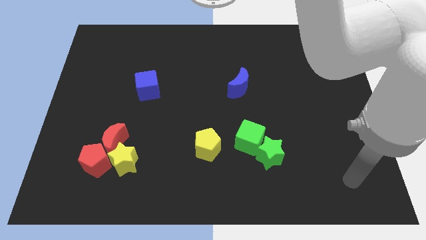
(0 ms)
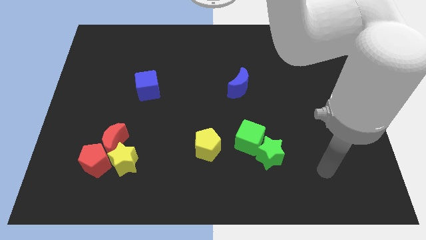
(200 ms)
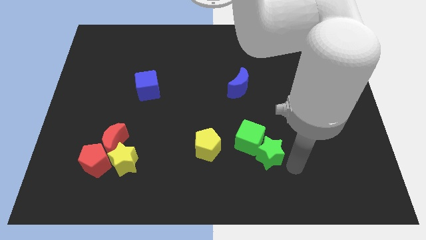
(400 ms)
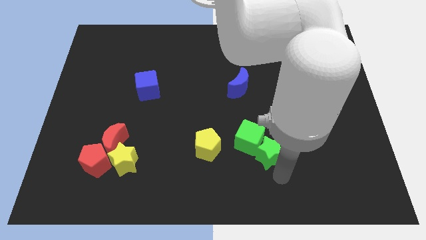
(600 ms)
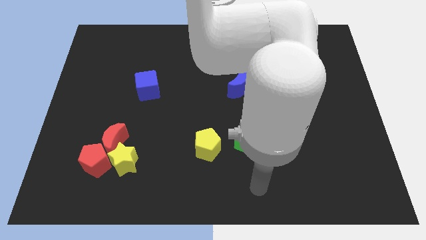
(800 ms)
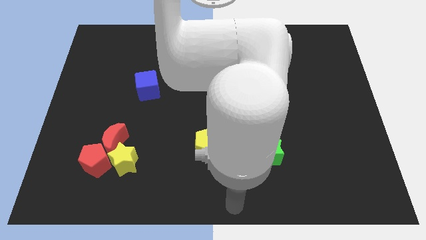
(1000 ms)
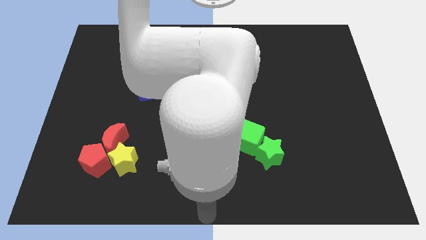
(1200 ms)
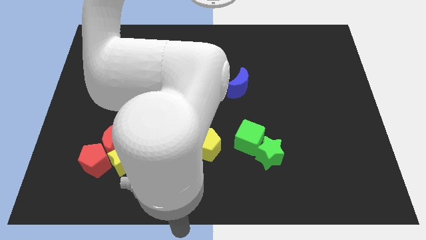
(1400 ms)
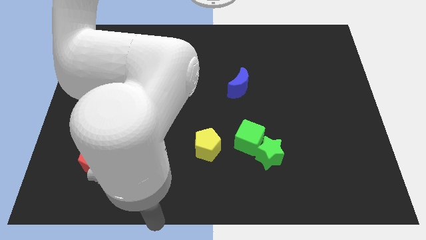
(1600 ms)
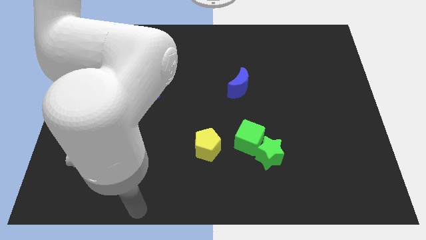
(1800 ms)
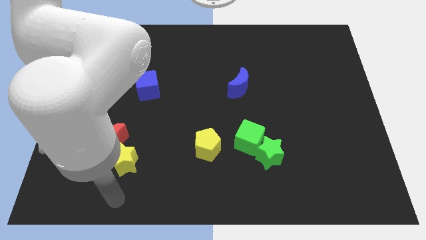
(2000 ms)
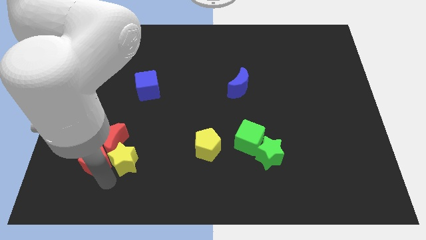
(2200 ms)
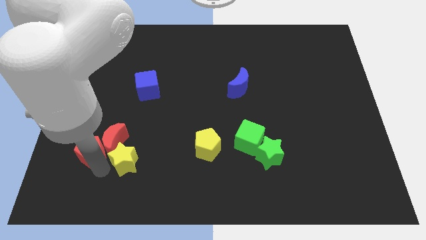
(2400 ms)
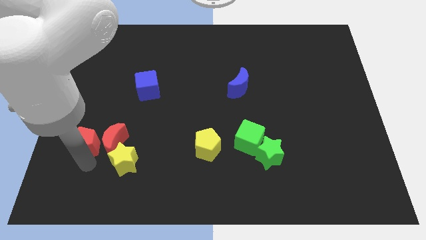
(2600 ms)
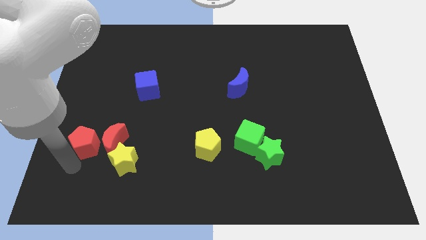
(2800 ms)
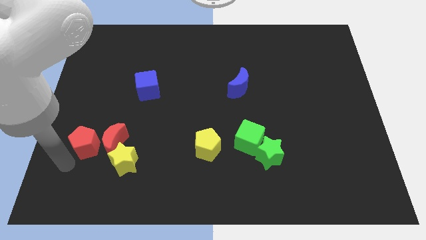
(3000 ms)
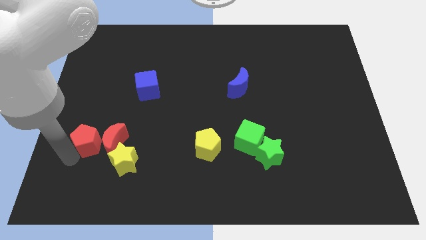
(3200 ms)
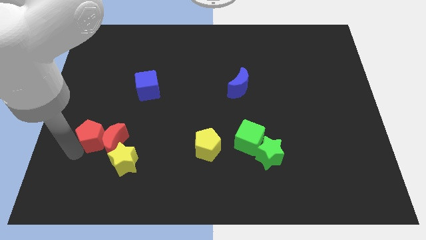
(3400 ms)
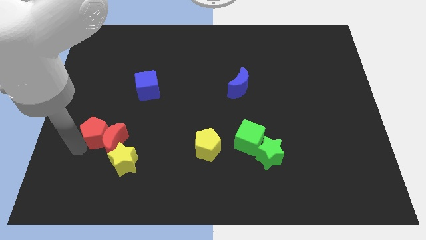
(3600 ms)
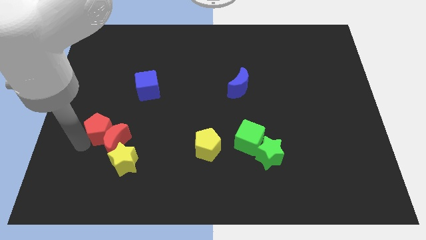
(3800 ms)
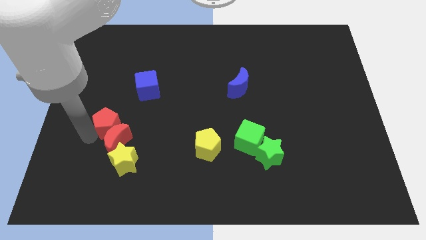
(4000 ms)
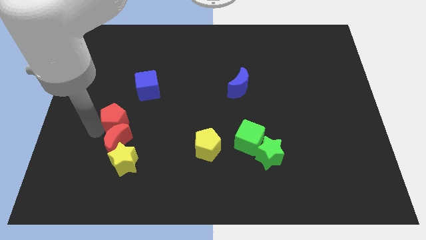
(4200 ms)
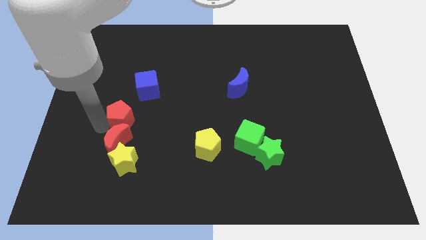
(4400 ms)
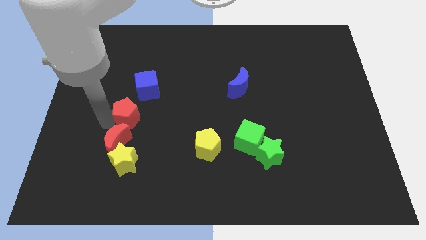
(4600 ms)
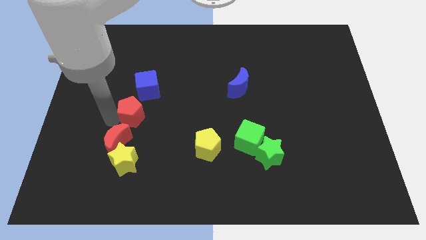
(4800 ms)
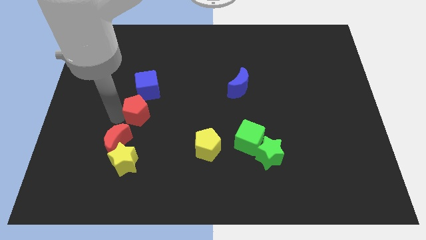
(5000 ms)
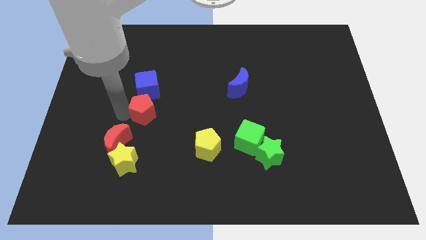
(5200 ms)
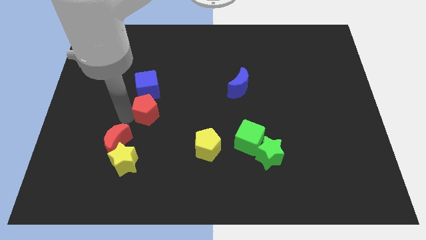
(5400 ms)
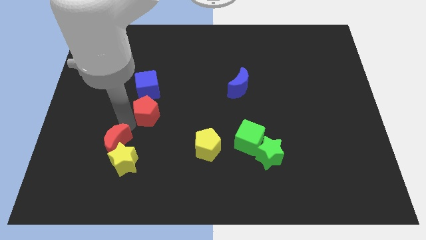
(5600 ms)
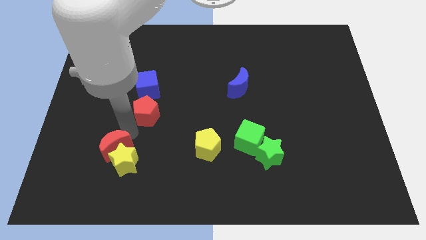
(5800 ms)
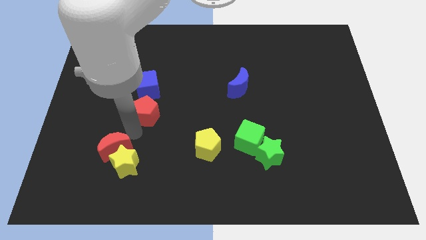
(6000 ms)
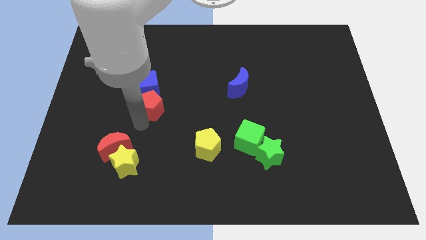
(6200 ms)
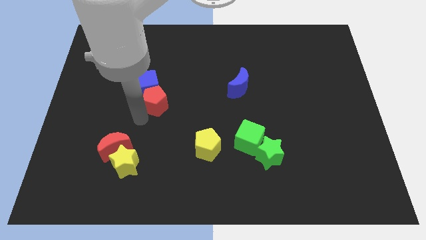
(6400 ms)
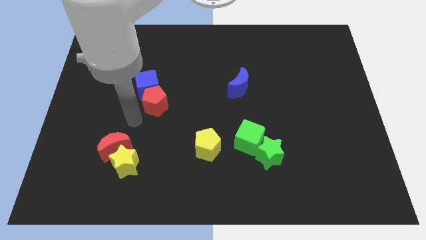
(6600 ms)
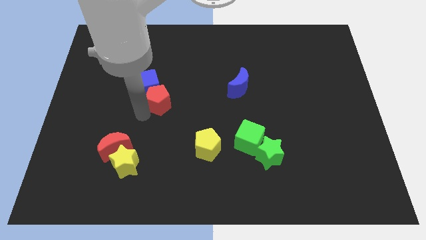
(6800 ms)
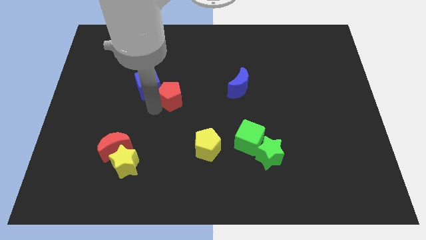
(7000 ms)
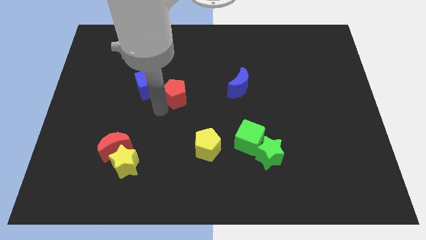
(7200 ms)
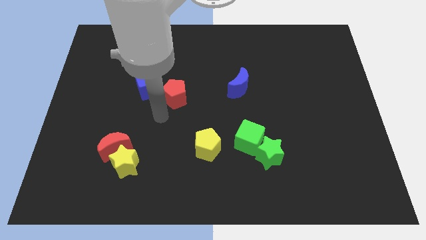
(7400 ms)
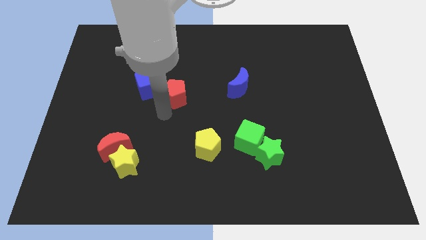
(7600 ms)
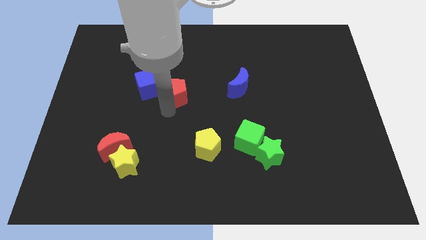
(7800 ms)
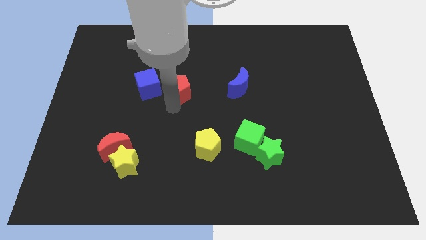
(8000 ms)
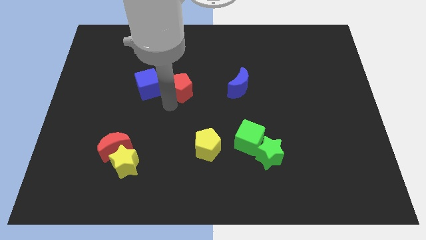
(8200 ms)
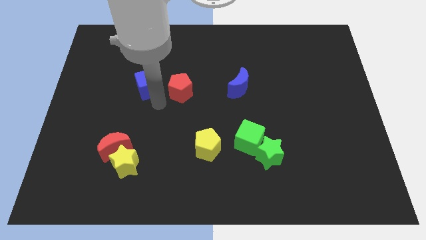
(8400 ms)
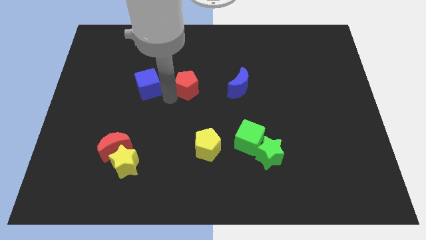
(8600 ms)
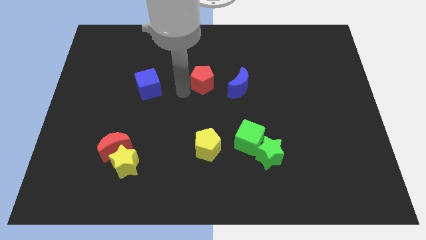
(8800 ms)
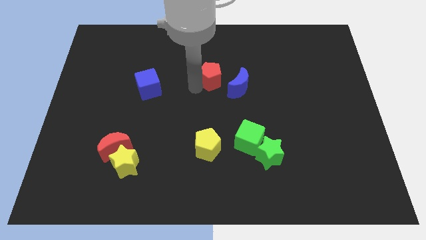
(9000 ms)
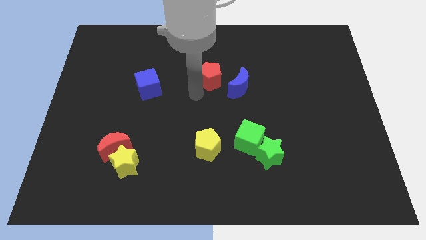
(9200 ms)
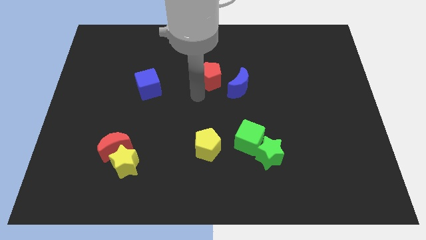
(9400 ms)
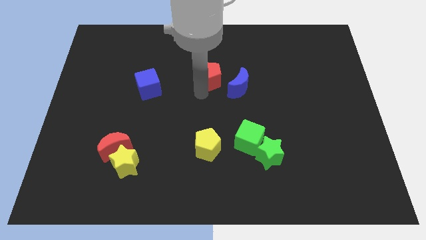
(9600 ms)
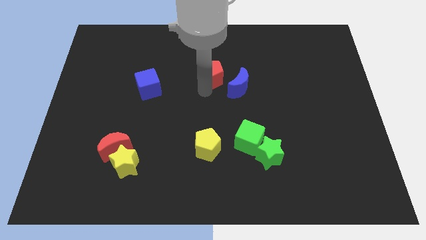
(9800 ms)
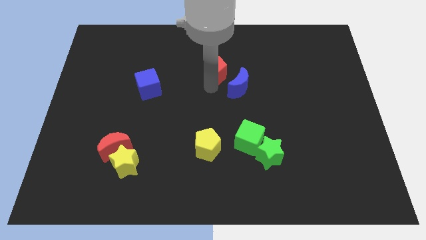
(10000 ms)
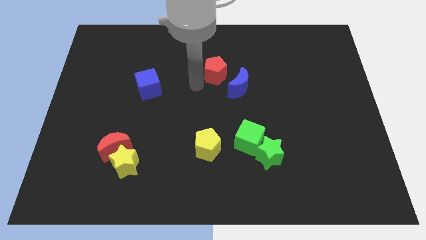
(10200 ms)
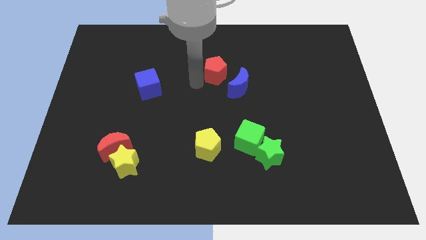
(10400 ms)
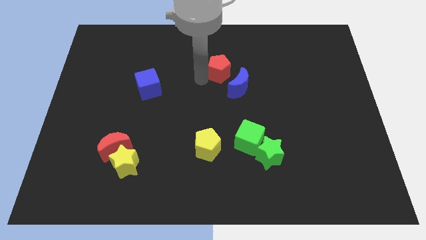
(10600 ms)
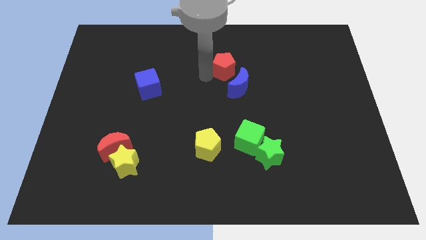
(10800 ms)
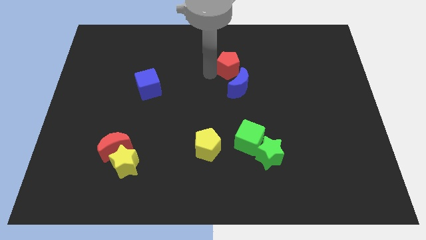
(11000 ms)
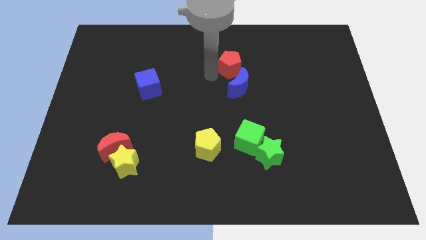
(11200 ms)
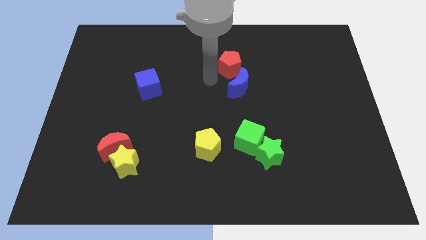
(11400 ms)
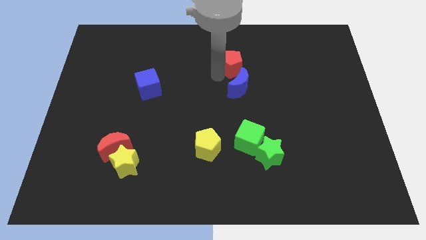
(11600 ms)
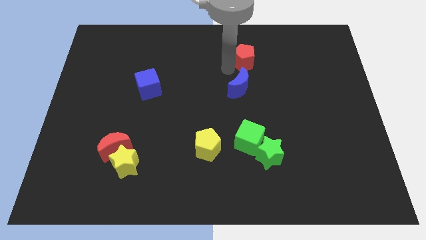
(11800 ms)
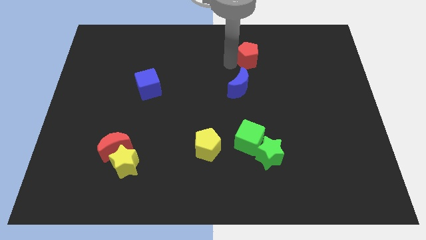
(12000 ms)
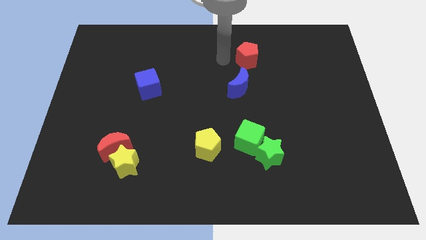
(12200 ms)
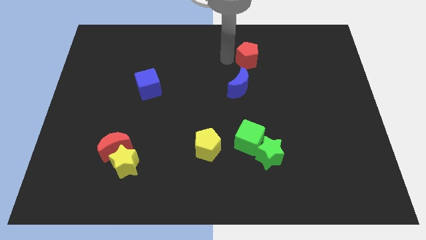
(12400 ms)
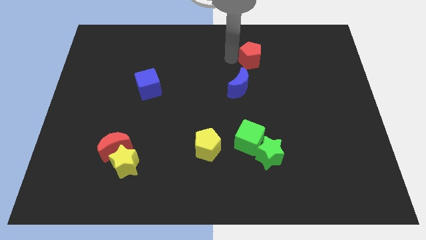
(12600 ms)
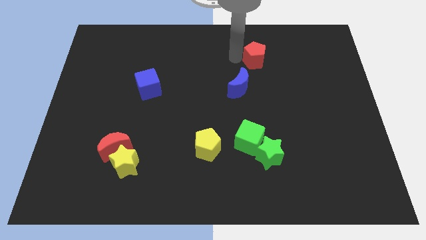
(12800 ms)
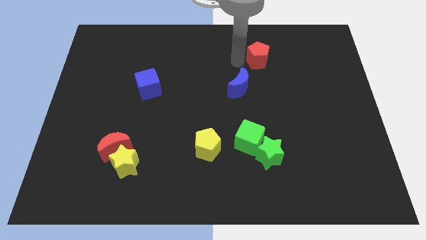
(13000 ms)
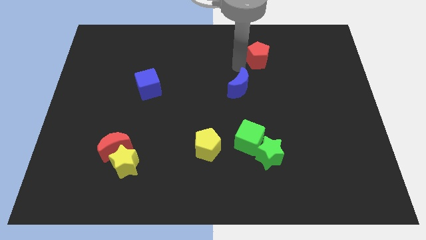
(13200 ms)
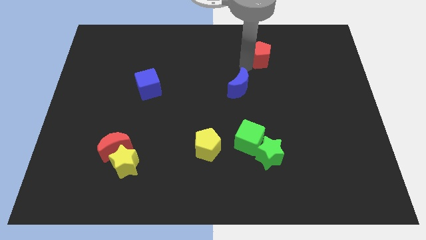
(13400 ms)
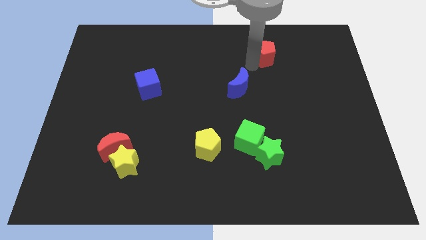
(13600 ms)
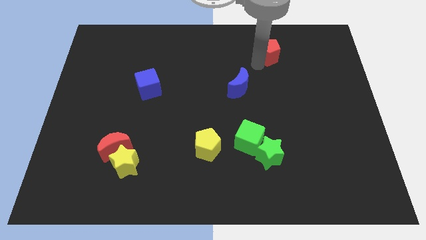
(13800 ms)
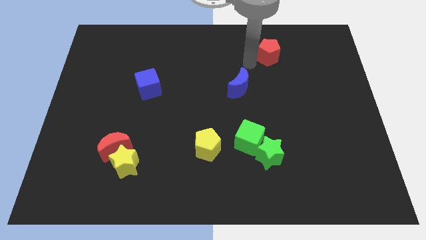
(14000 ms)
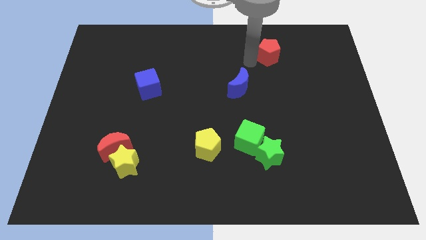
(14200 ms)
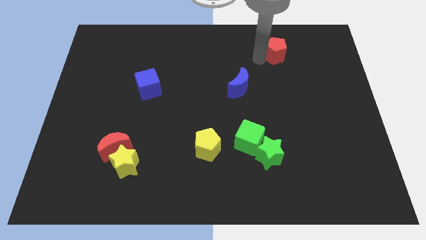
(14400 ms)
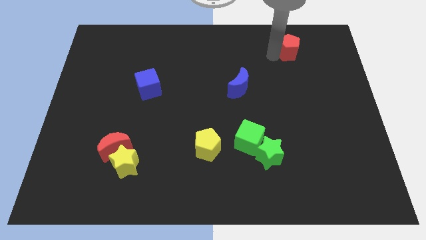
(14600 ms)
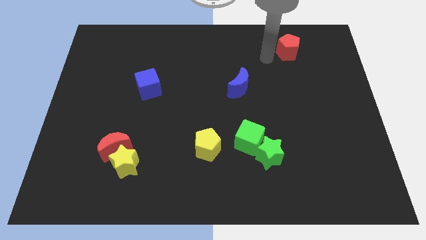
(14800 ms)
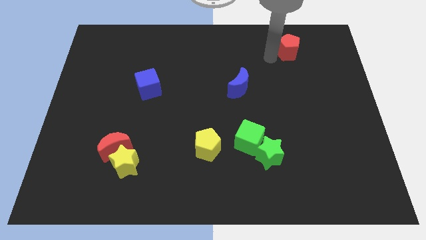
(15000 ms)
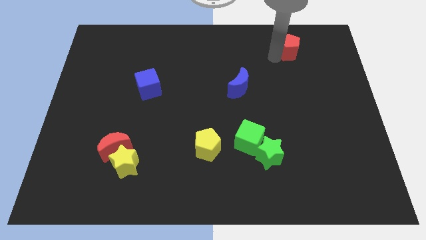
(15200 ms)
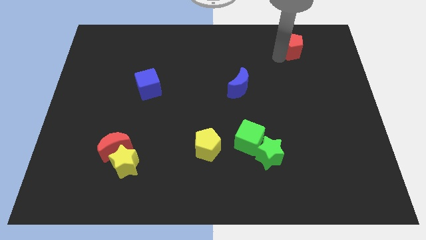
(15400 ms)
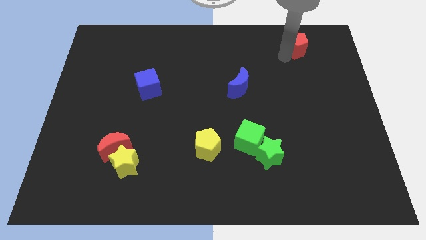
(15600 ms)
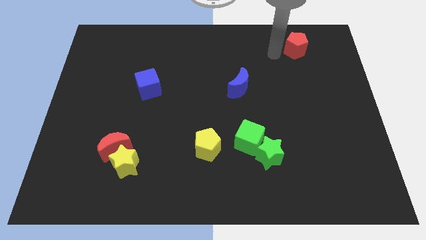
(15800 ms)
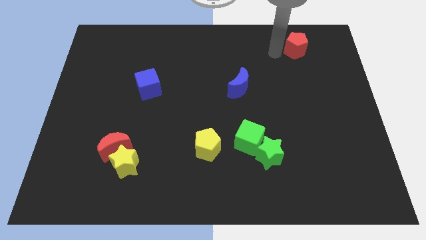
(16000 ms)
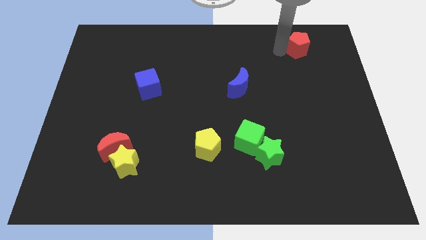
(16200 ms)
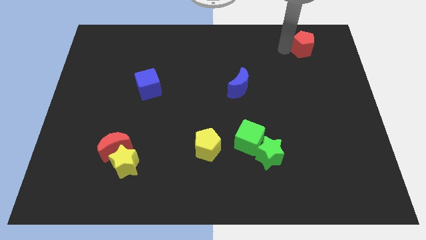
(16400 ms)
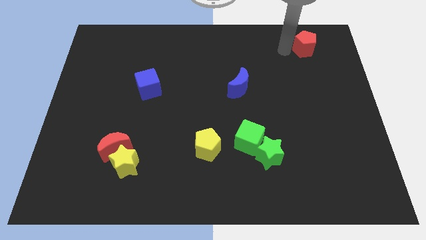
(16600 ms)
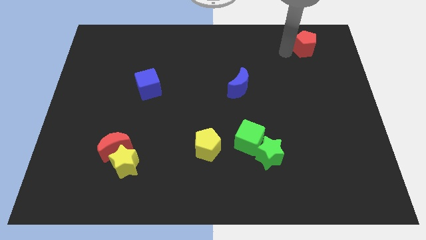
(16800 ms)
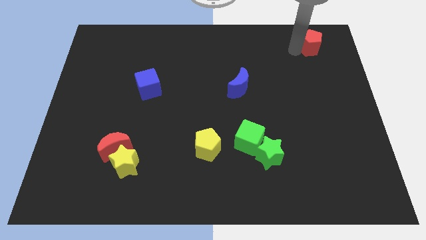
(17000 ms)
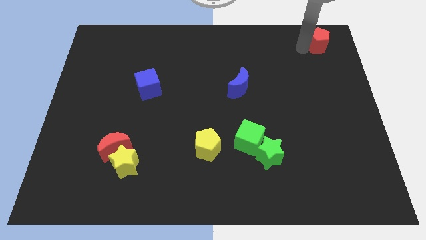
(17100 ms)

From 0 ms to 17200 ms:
move the red pentagon to the top right
